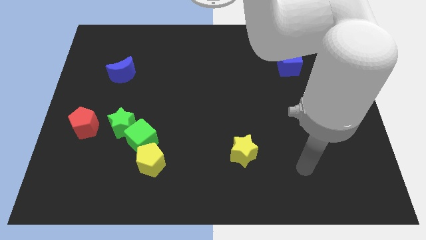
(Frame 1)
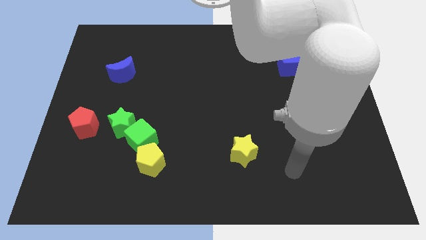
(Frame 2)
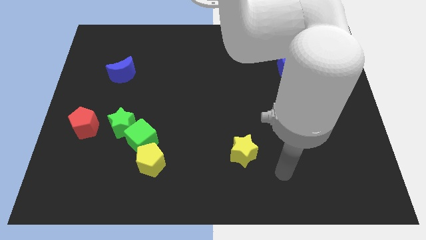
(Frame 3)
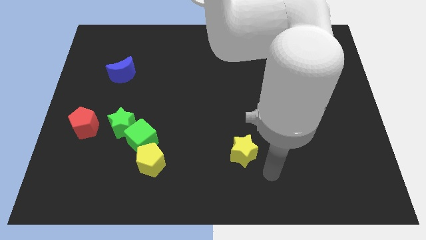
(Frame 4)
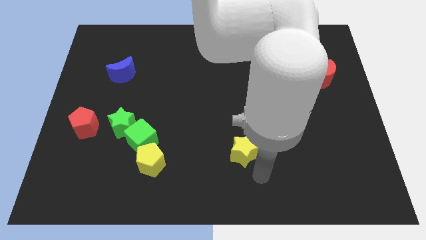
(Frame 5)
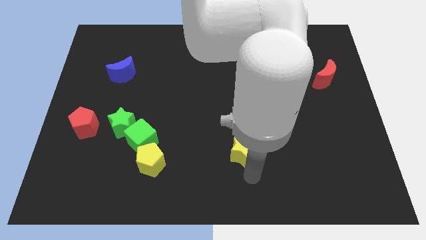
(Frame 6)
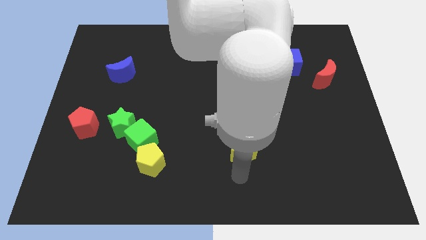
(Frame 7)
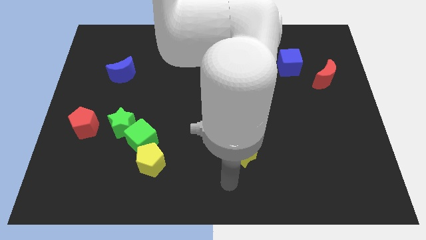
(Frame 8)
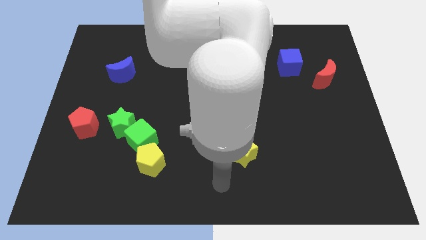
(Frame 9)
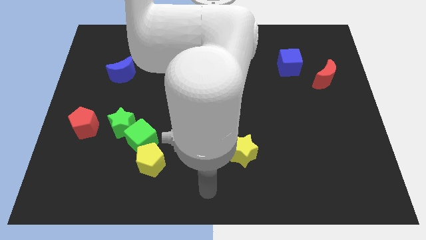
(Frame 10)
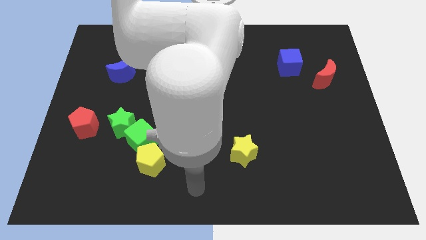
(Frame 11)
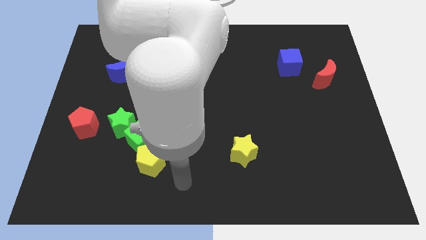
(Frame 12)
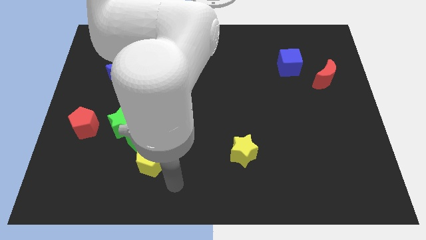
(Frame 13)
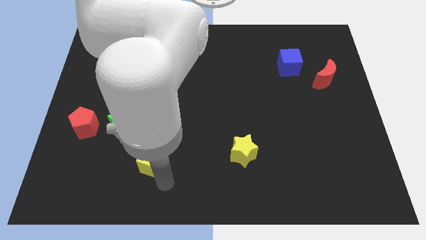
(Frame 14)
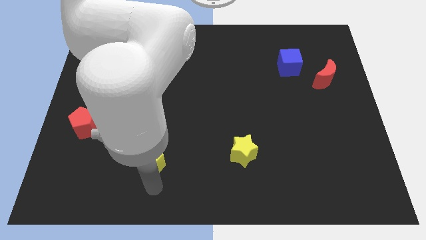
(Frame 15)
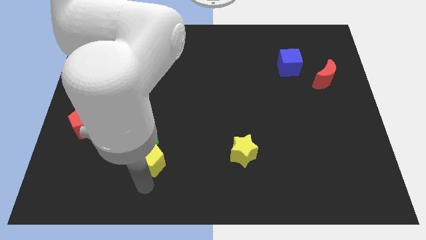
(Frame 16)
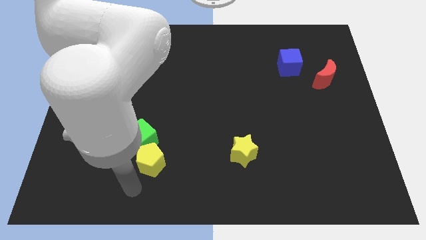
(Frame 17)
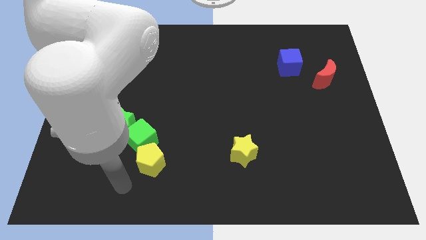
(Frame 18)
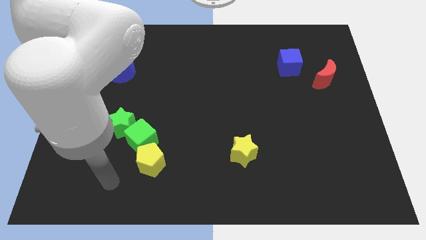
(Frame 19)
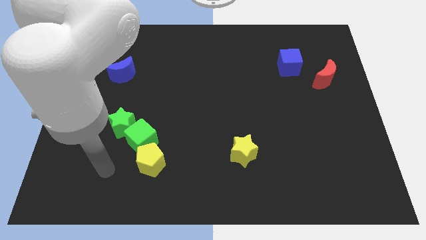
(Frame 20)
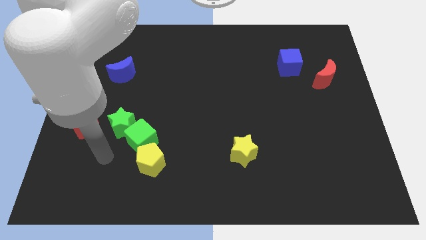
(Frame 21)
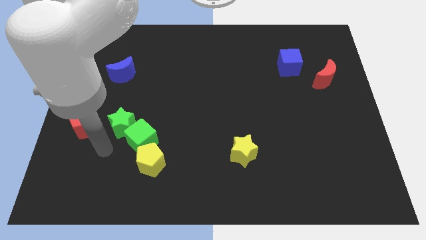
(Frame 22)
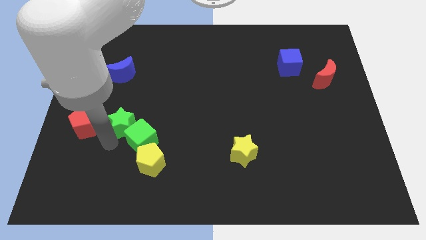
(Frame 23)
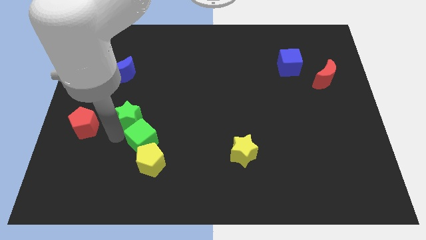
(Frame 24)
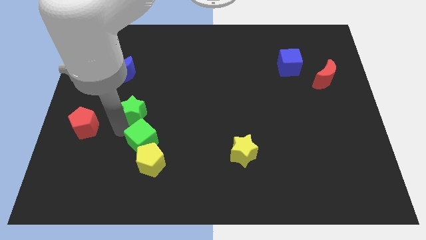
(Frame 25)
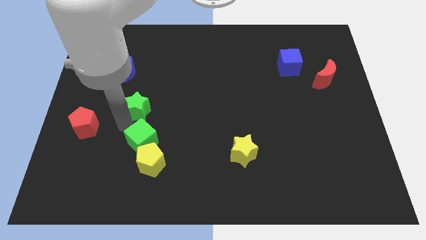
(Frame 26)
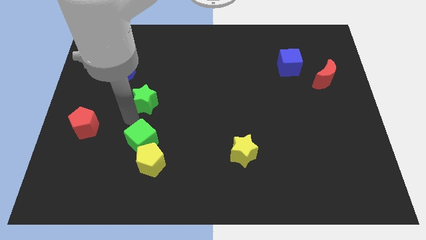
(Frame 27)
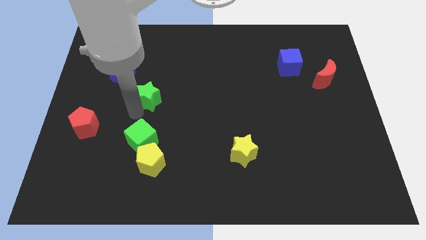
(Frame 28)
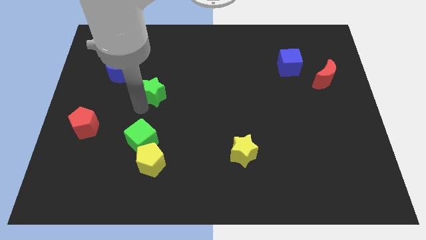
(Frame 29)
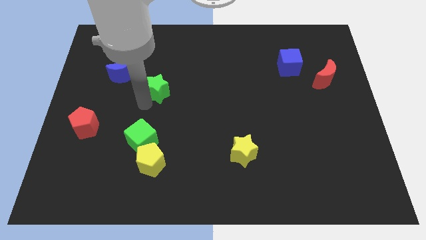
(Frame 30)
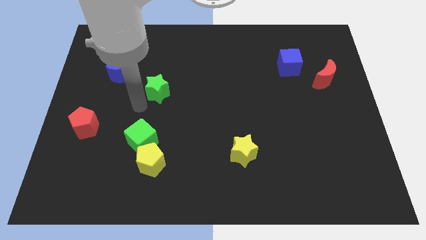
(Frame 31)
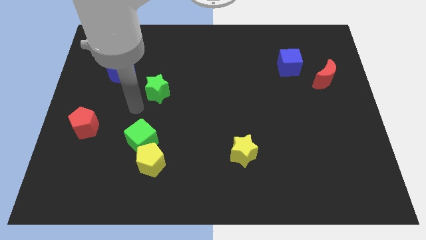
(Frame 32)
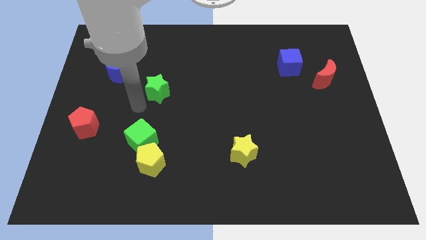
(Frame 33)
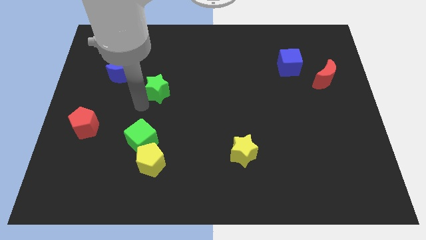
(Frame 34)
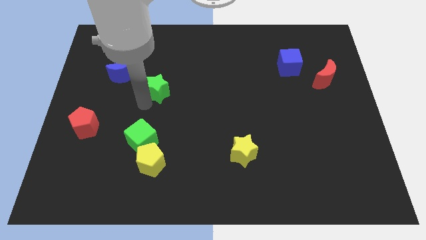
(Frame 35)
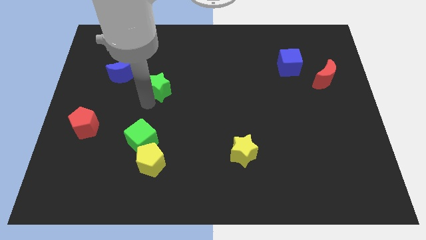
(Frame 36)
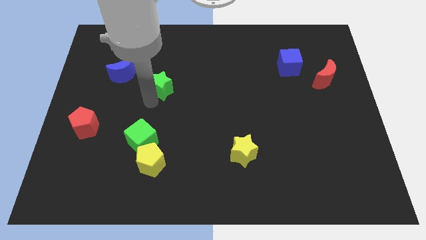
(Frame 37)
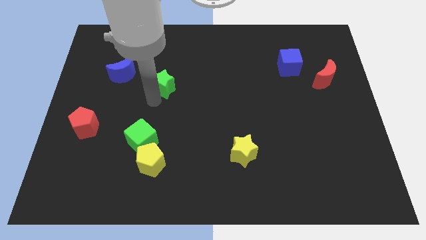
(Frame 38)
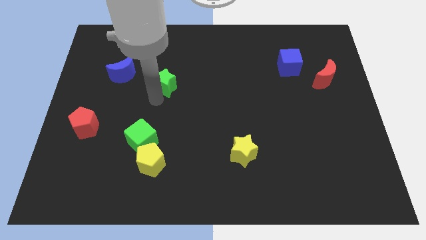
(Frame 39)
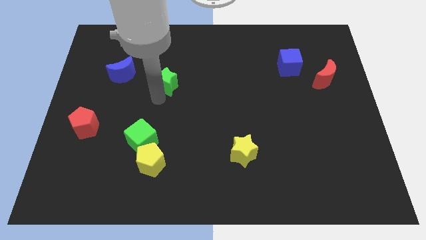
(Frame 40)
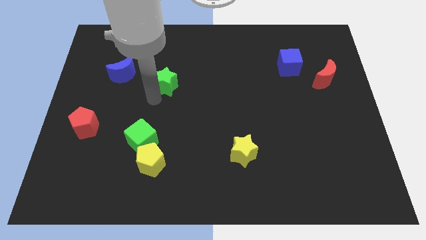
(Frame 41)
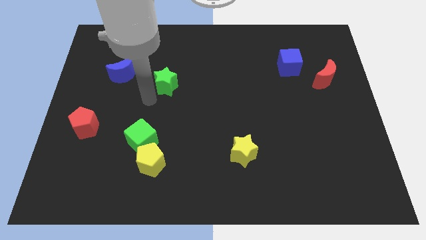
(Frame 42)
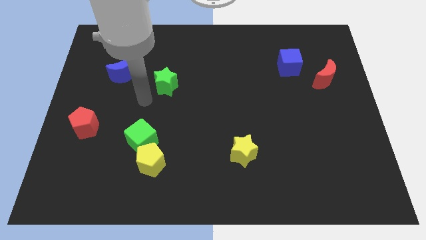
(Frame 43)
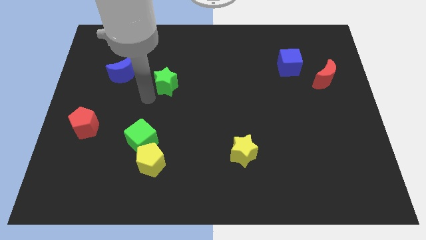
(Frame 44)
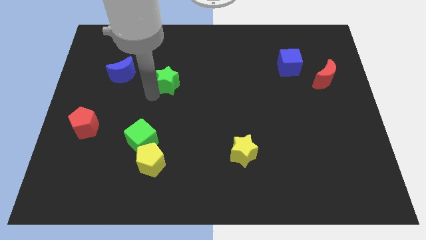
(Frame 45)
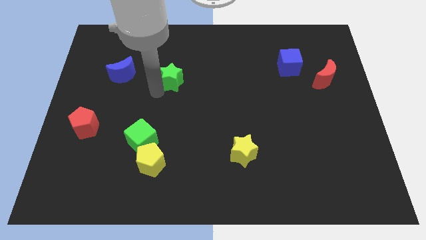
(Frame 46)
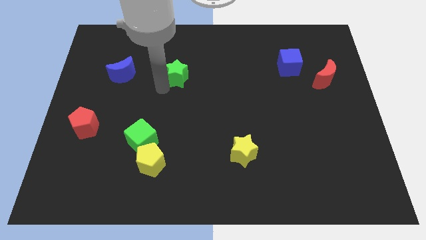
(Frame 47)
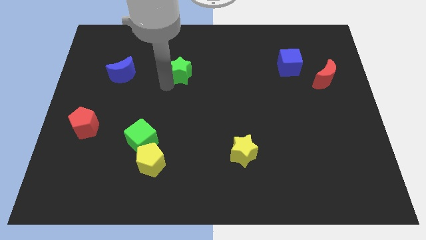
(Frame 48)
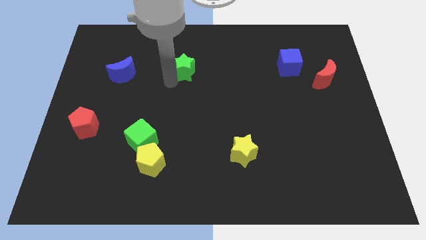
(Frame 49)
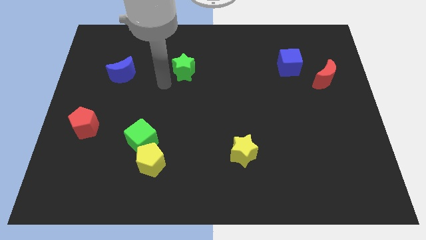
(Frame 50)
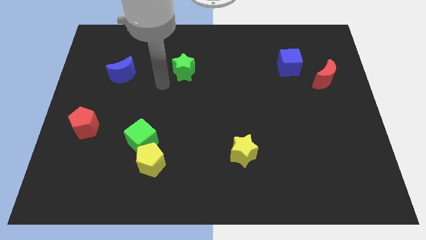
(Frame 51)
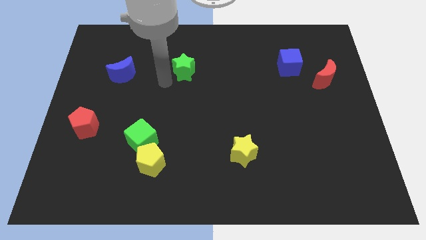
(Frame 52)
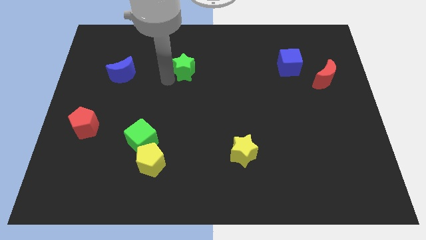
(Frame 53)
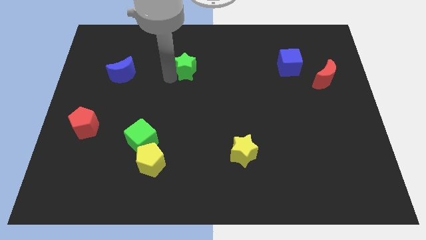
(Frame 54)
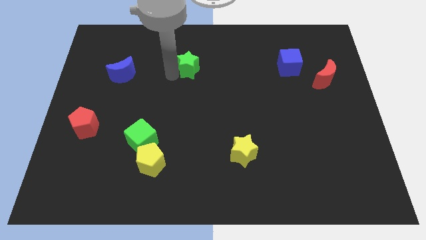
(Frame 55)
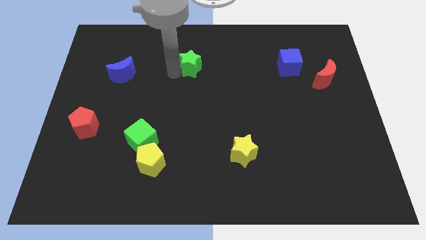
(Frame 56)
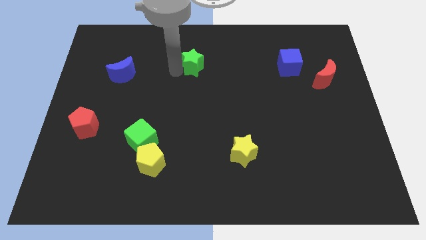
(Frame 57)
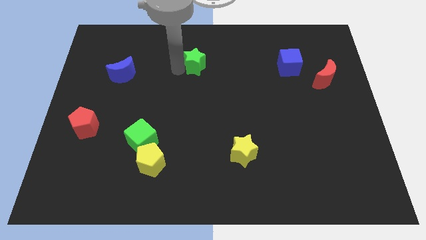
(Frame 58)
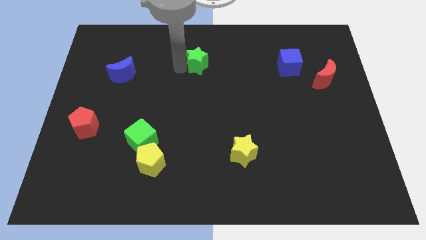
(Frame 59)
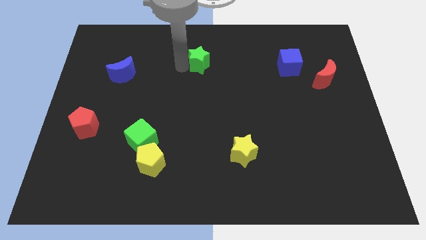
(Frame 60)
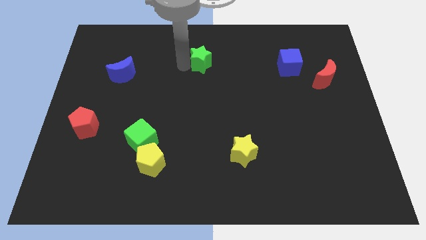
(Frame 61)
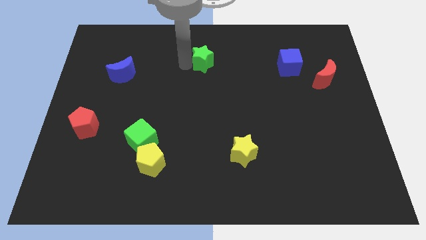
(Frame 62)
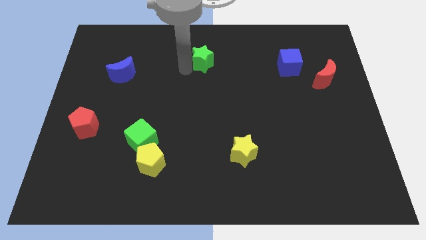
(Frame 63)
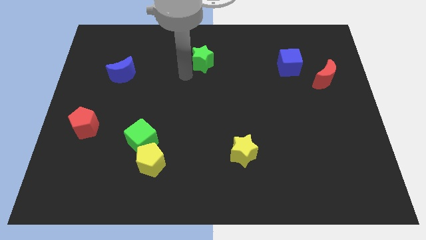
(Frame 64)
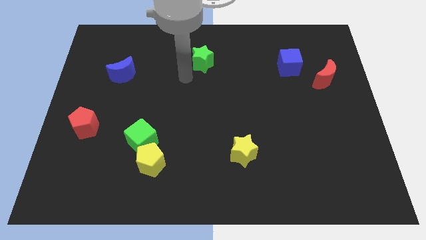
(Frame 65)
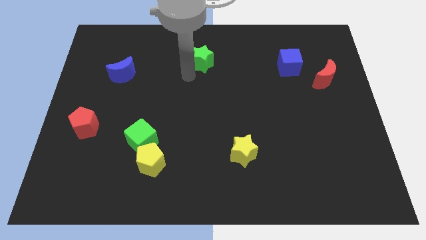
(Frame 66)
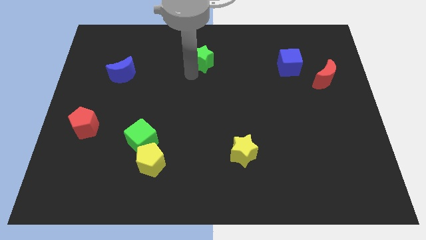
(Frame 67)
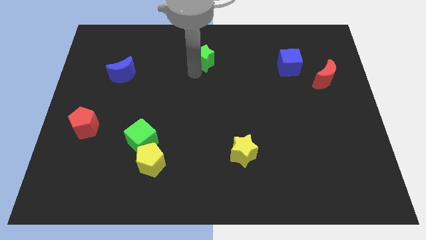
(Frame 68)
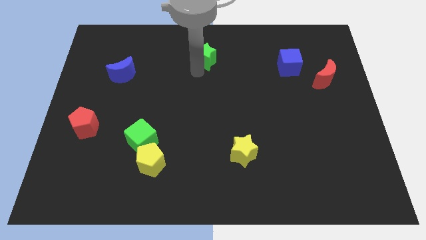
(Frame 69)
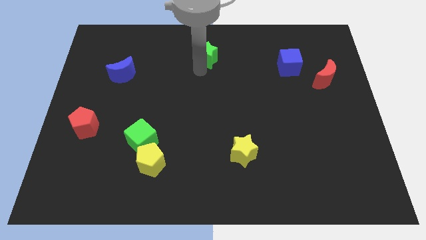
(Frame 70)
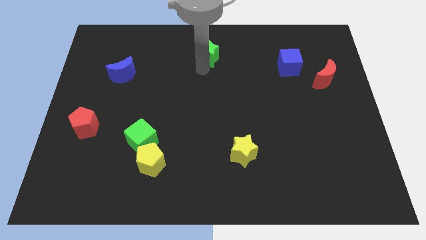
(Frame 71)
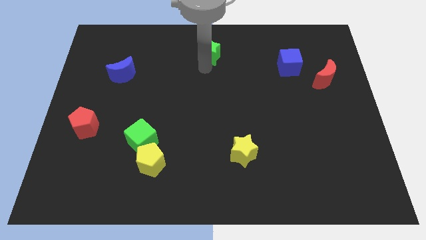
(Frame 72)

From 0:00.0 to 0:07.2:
slide the green star to the top side
